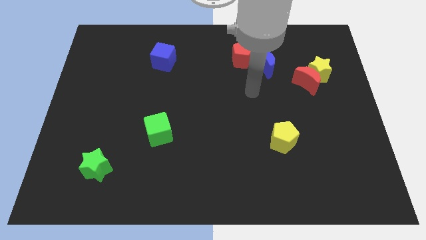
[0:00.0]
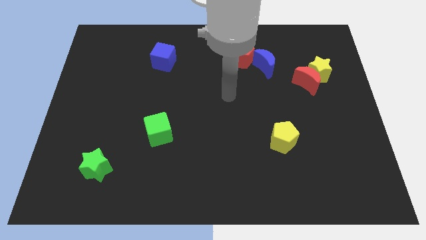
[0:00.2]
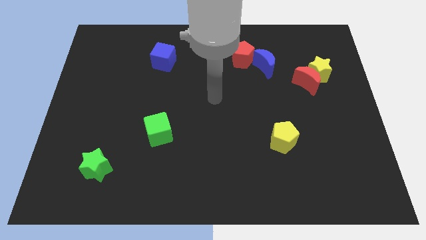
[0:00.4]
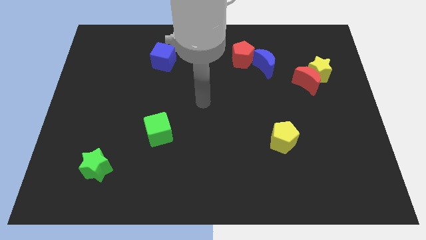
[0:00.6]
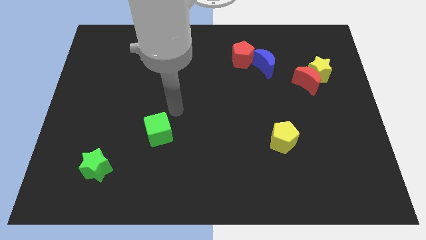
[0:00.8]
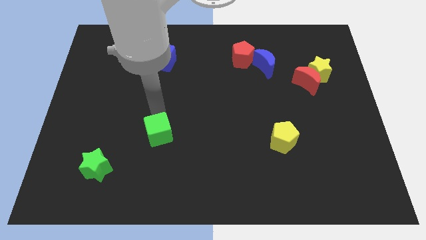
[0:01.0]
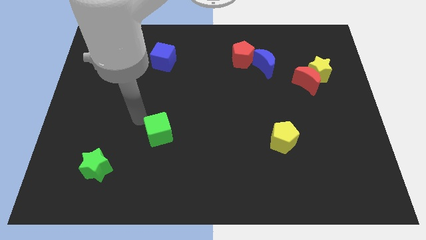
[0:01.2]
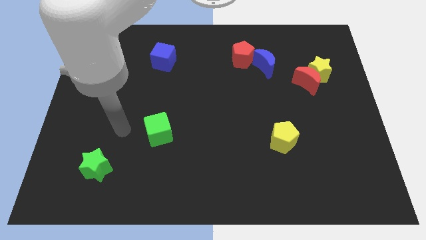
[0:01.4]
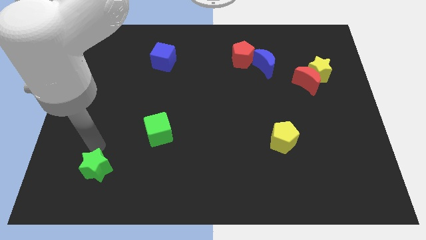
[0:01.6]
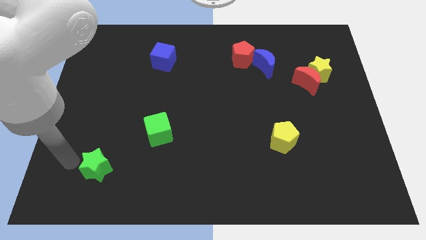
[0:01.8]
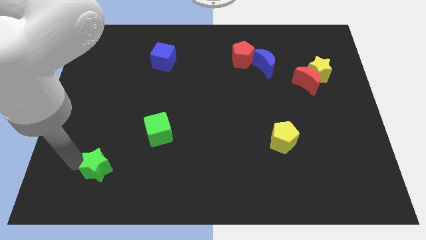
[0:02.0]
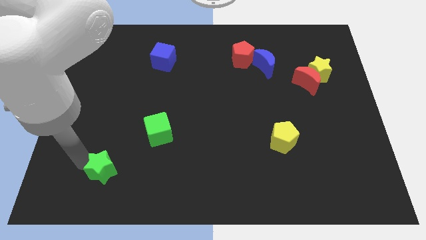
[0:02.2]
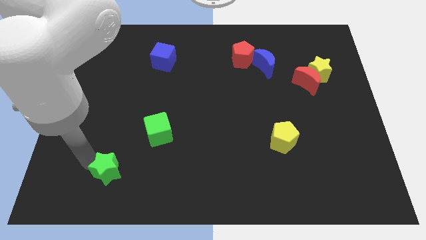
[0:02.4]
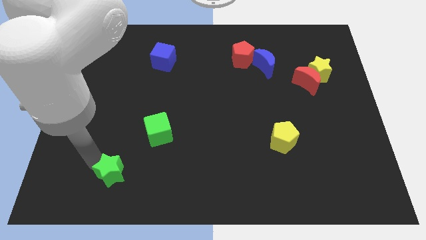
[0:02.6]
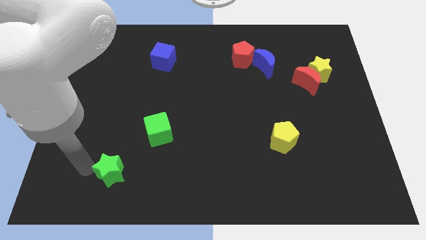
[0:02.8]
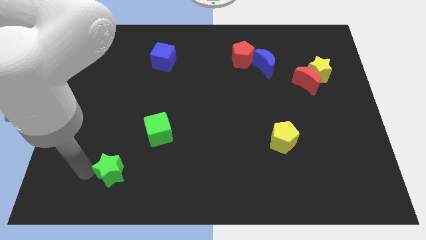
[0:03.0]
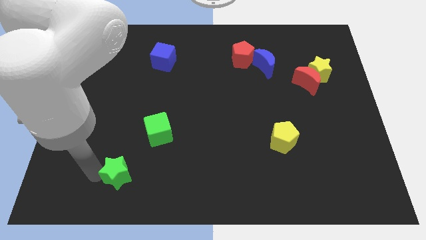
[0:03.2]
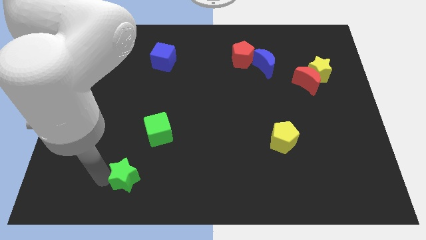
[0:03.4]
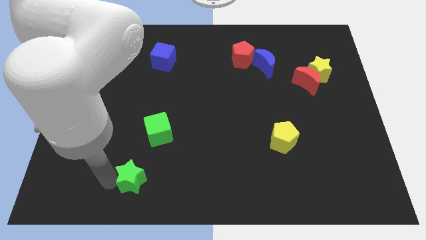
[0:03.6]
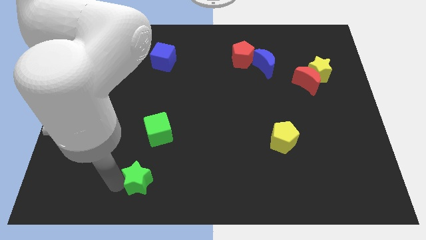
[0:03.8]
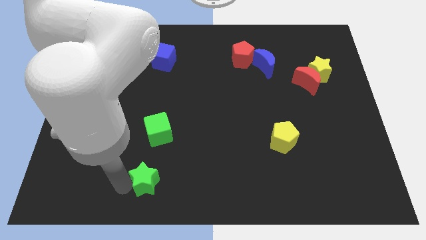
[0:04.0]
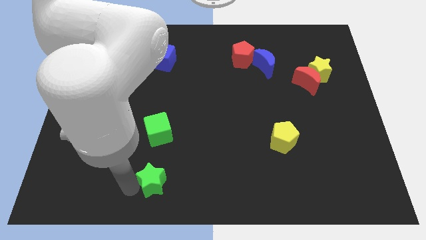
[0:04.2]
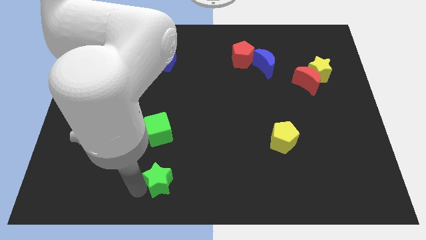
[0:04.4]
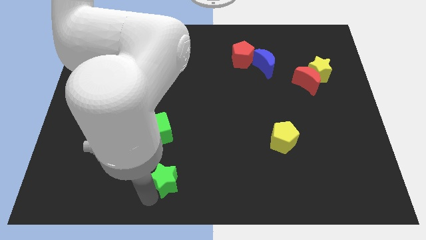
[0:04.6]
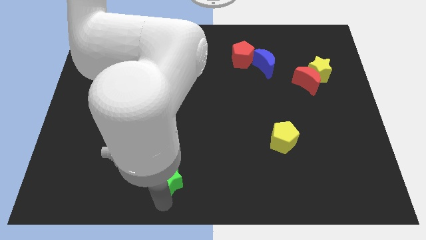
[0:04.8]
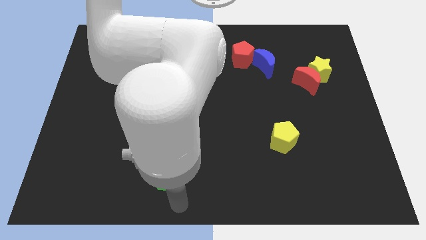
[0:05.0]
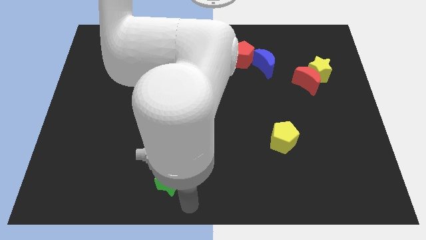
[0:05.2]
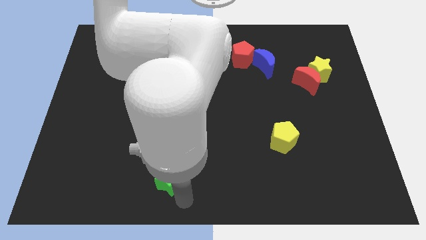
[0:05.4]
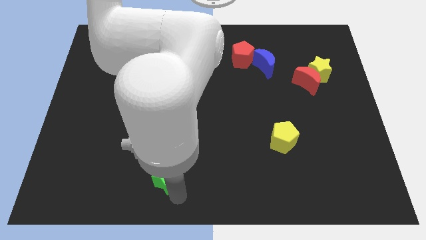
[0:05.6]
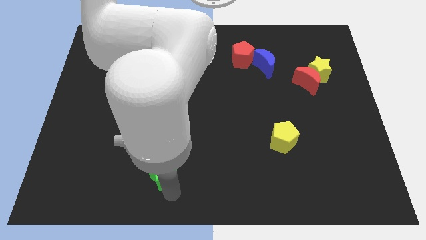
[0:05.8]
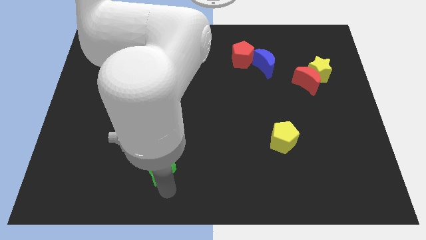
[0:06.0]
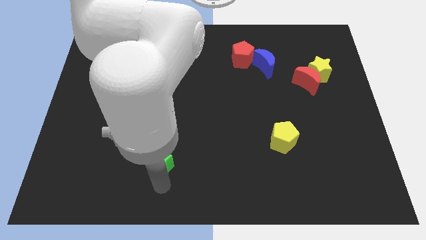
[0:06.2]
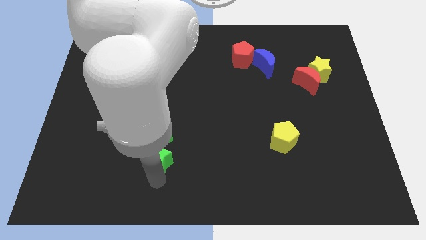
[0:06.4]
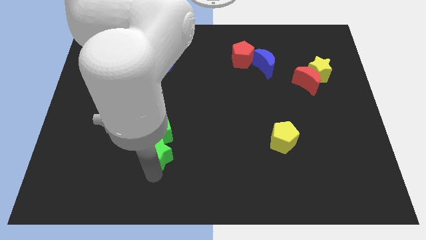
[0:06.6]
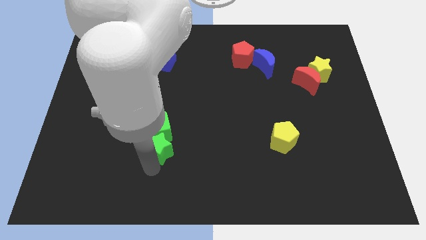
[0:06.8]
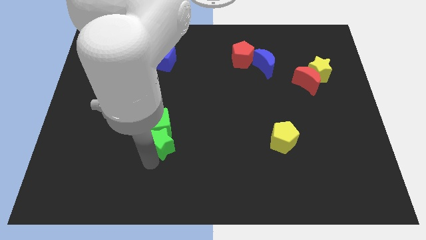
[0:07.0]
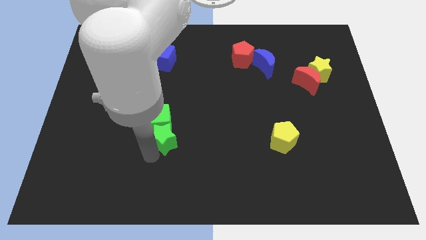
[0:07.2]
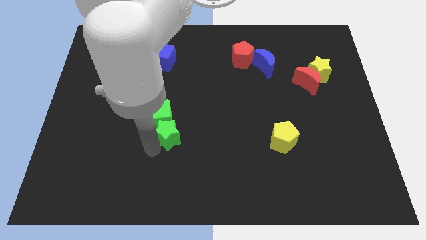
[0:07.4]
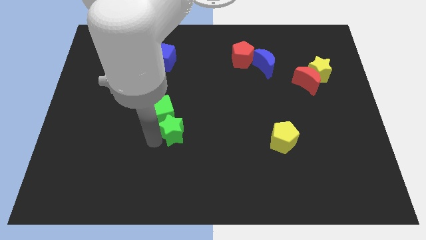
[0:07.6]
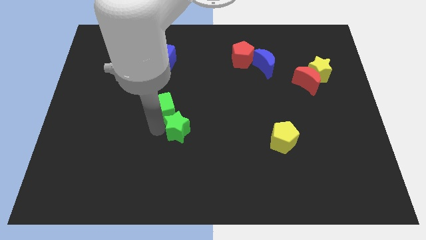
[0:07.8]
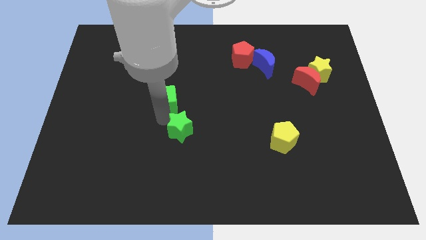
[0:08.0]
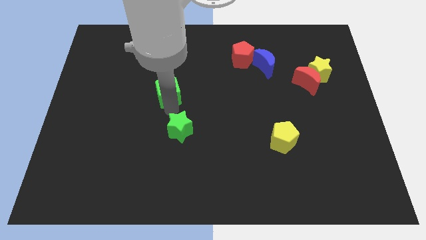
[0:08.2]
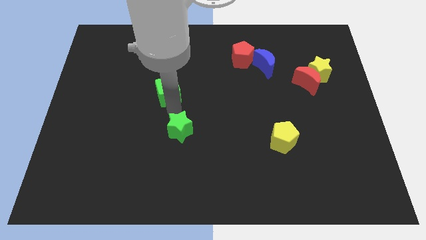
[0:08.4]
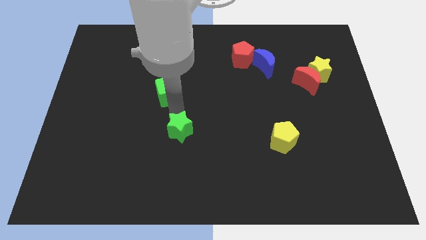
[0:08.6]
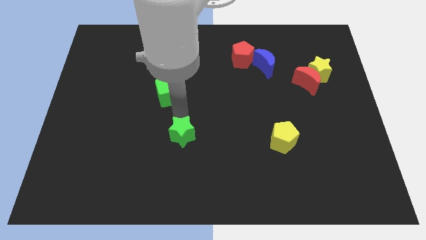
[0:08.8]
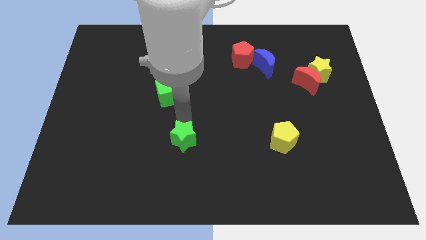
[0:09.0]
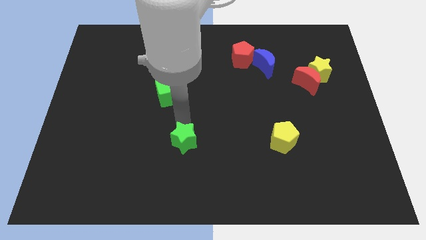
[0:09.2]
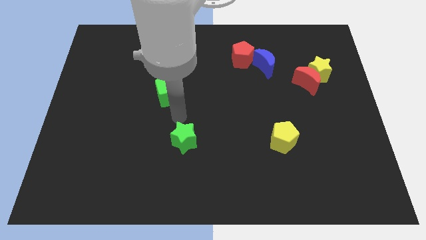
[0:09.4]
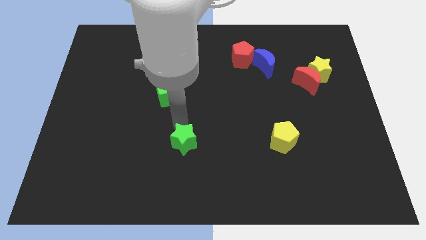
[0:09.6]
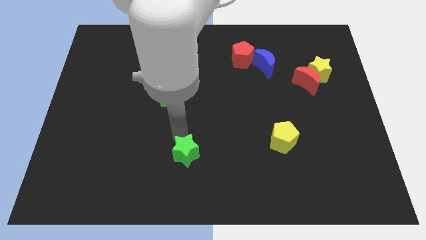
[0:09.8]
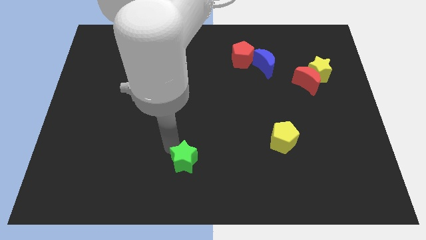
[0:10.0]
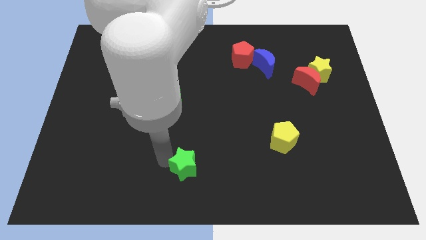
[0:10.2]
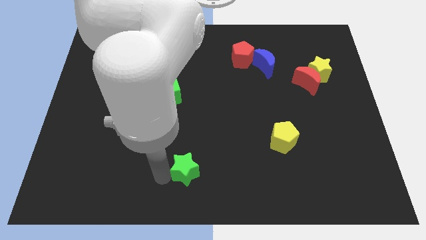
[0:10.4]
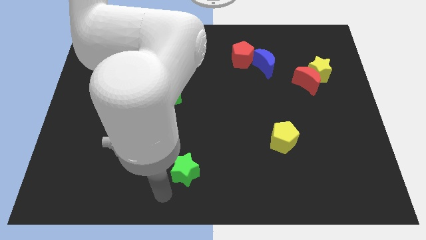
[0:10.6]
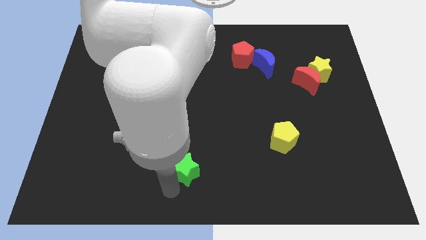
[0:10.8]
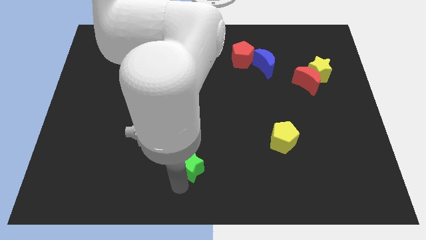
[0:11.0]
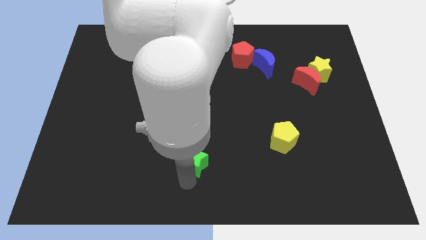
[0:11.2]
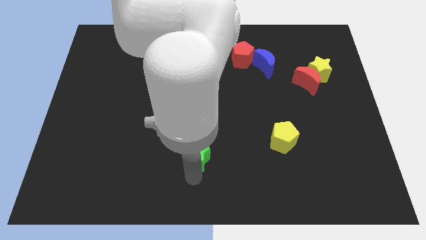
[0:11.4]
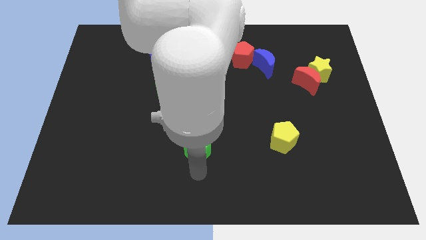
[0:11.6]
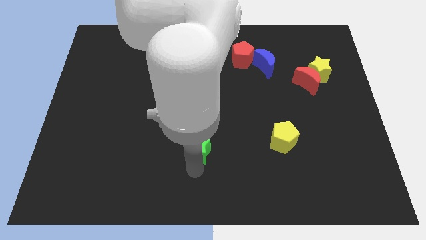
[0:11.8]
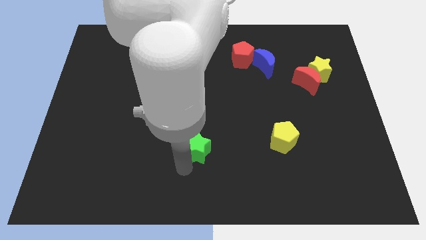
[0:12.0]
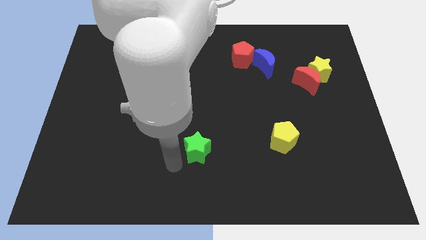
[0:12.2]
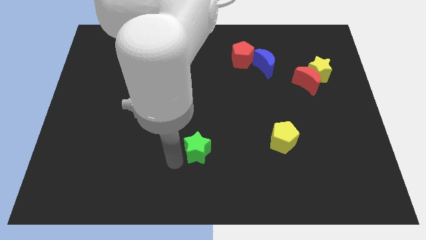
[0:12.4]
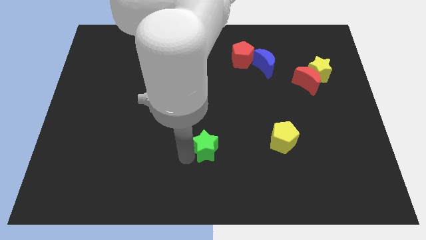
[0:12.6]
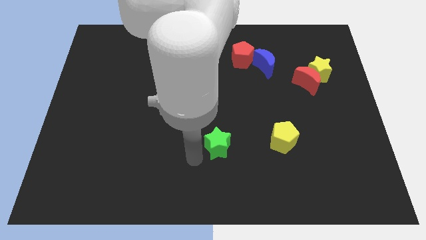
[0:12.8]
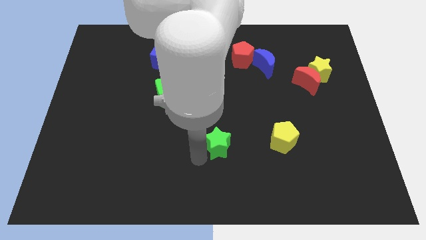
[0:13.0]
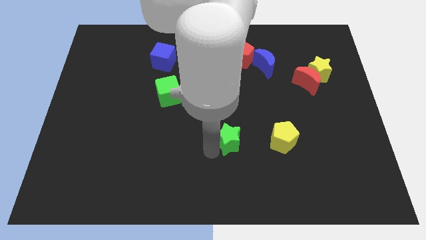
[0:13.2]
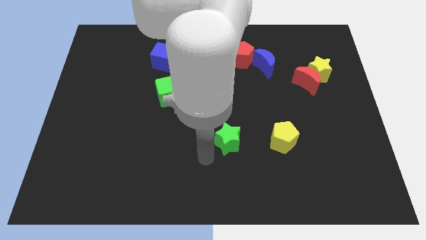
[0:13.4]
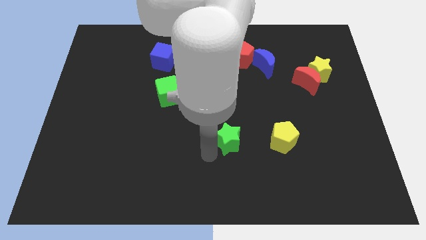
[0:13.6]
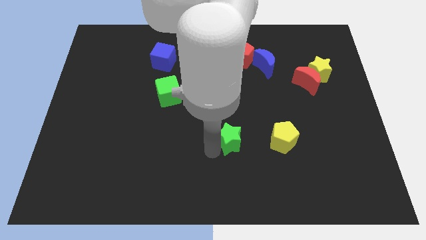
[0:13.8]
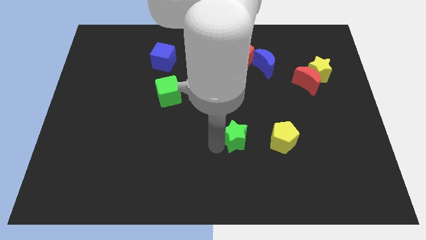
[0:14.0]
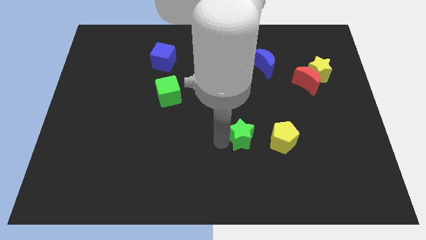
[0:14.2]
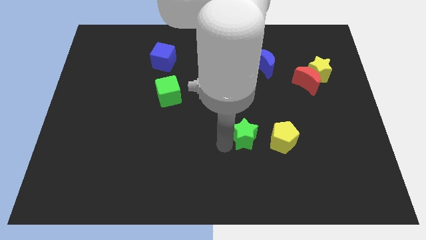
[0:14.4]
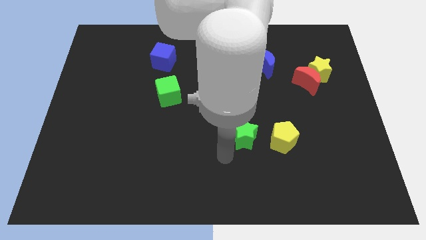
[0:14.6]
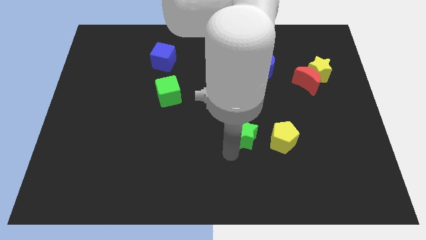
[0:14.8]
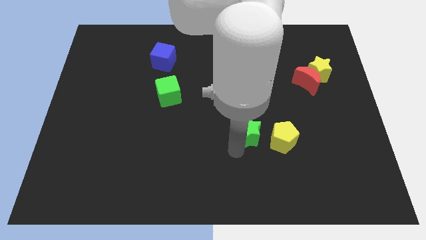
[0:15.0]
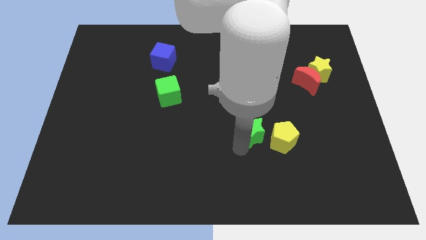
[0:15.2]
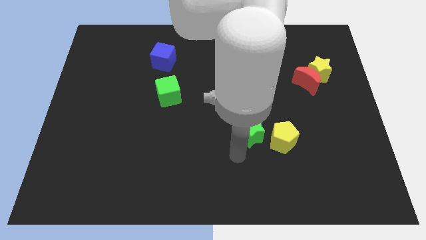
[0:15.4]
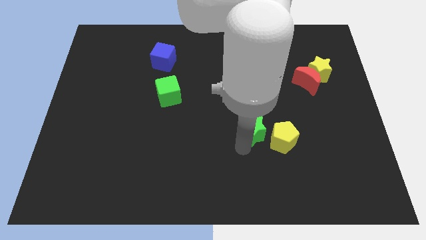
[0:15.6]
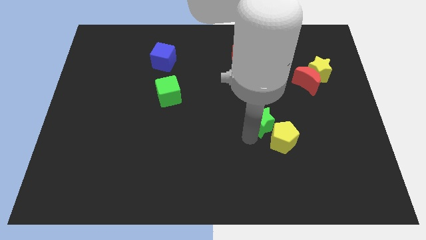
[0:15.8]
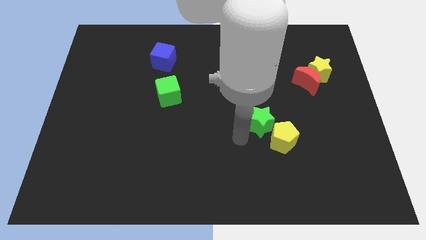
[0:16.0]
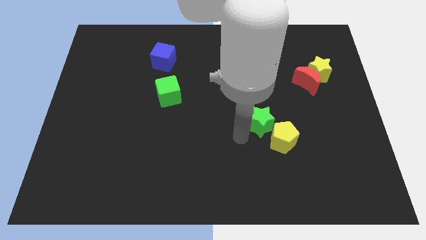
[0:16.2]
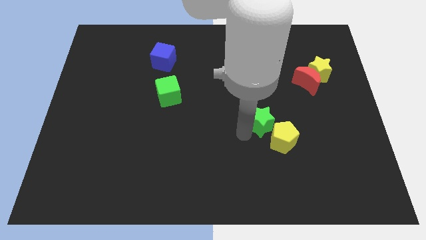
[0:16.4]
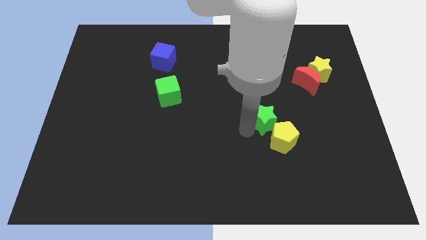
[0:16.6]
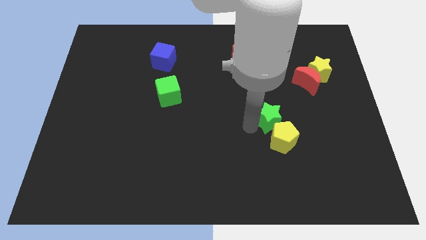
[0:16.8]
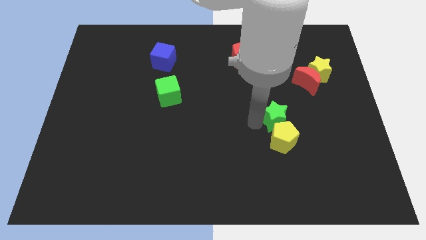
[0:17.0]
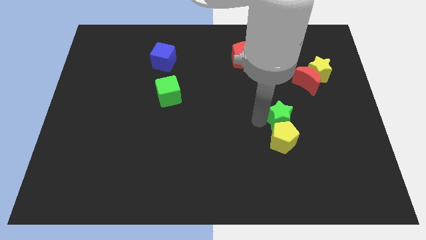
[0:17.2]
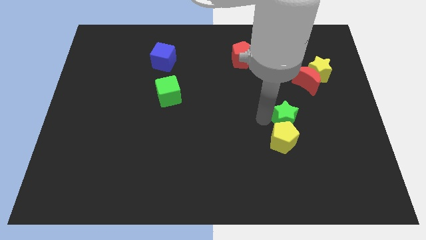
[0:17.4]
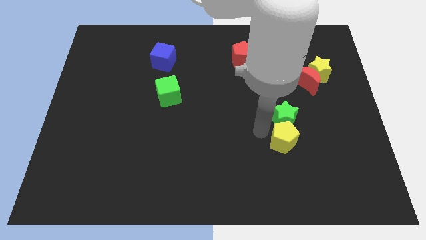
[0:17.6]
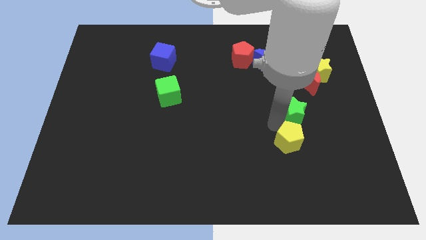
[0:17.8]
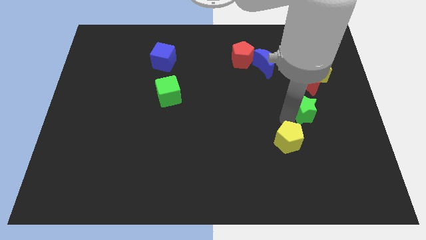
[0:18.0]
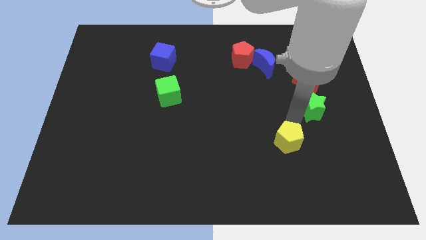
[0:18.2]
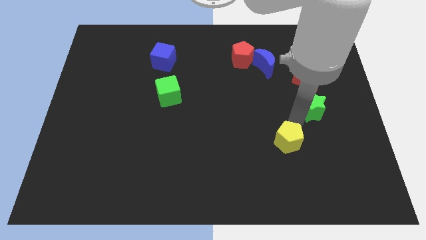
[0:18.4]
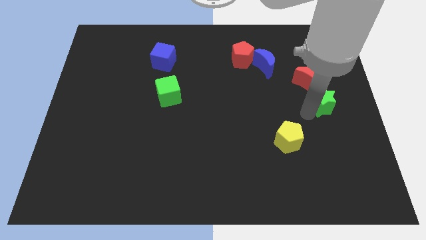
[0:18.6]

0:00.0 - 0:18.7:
move the green star to the bottom right of the red moon
